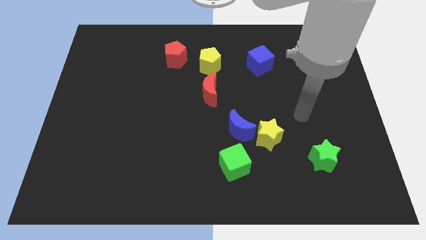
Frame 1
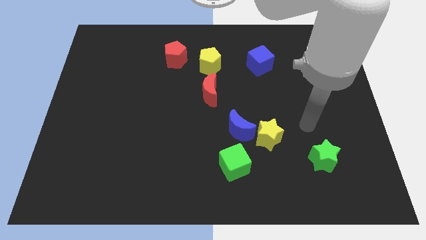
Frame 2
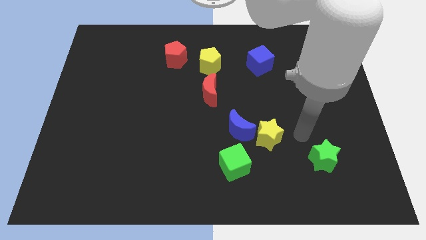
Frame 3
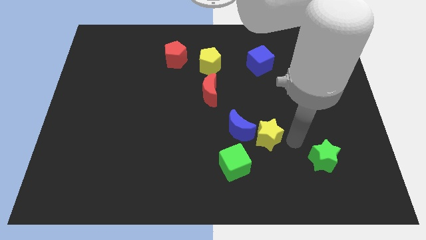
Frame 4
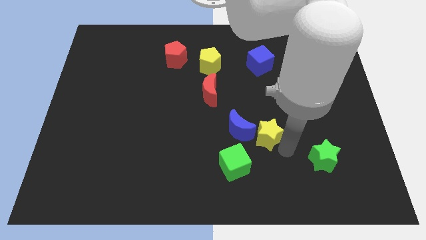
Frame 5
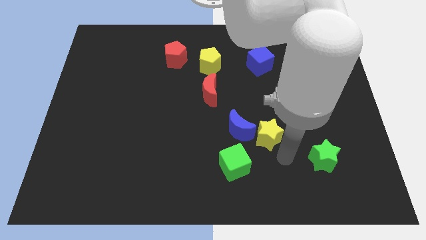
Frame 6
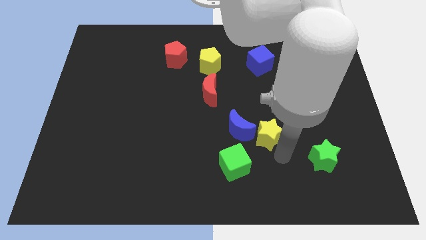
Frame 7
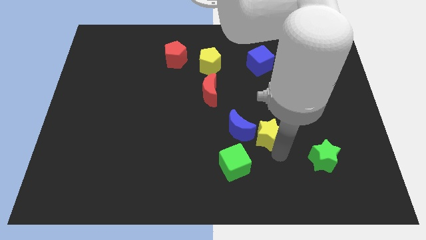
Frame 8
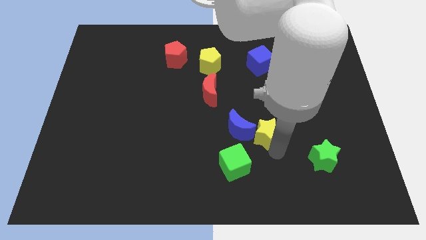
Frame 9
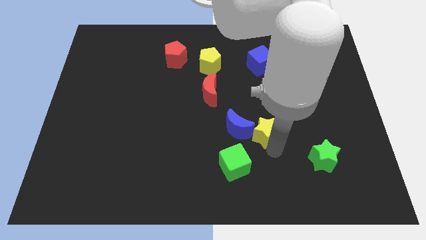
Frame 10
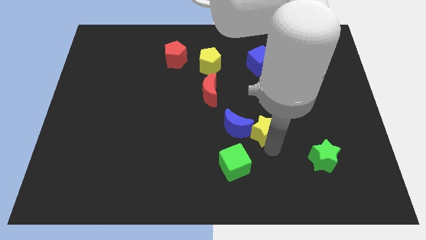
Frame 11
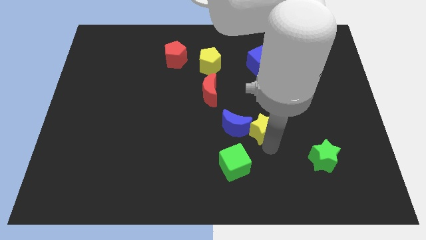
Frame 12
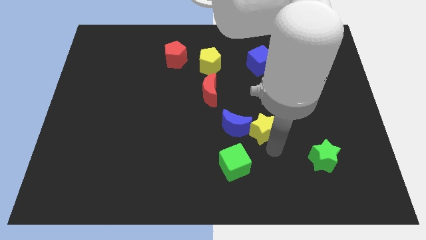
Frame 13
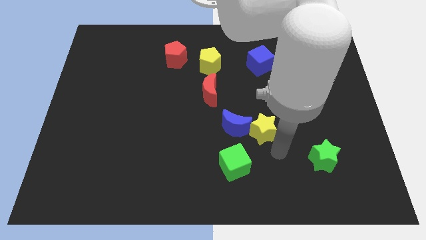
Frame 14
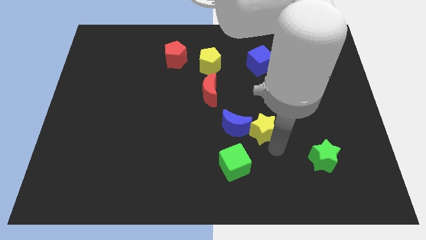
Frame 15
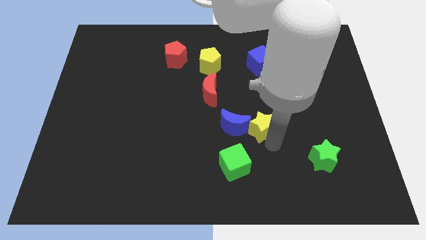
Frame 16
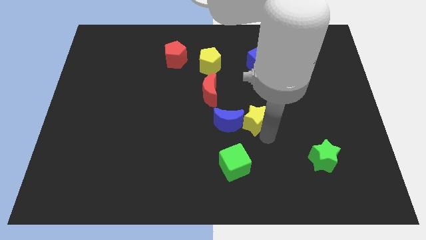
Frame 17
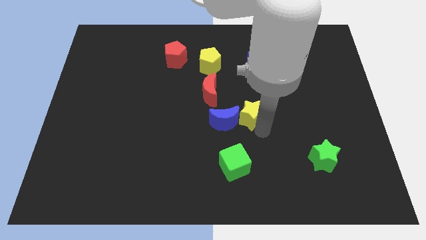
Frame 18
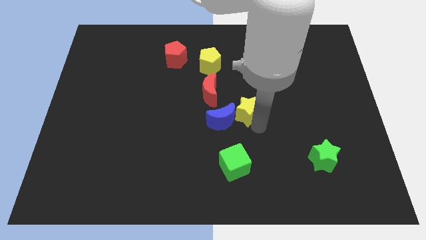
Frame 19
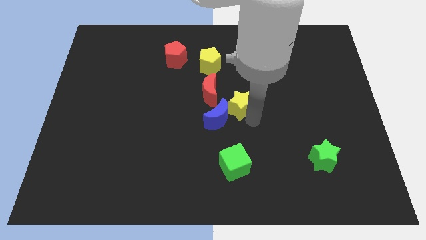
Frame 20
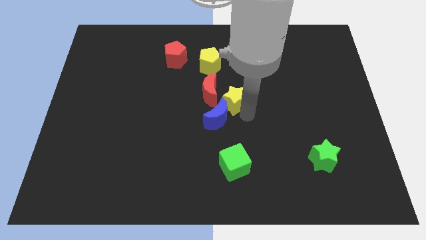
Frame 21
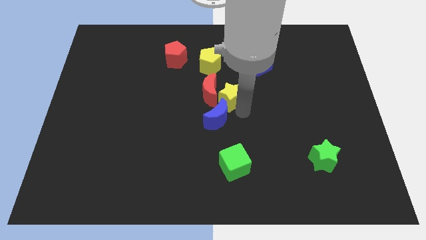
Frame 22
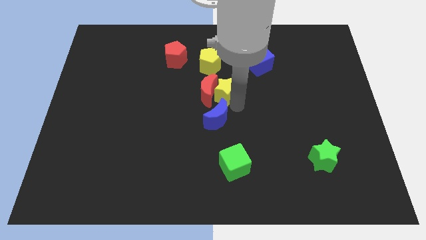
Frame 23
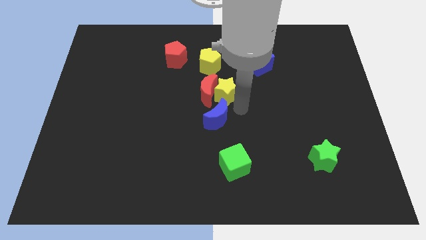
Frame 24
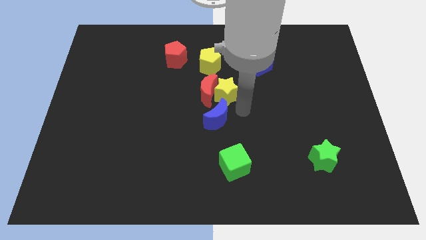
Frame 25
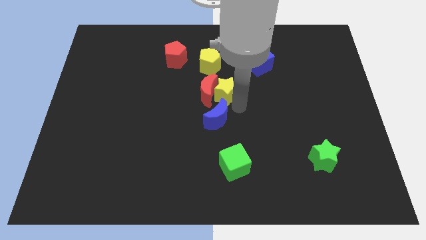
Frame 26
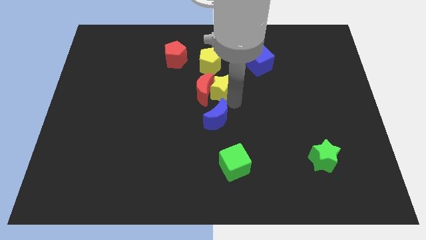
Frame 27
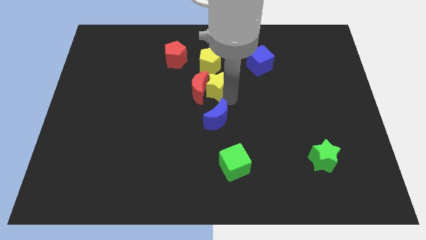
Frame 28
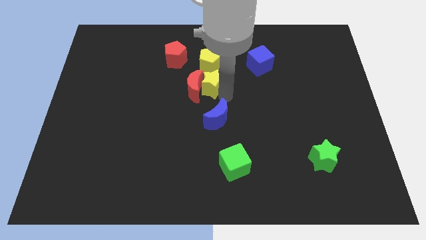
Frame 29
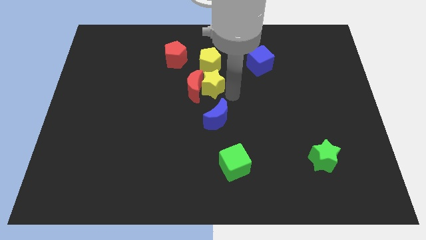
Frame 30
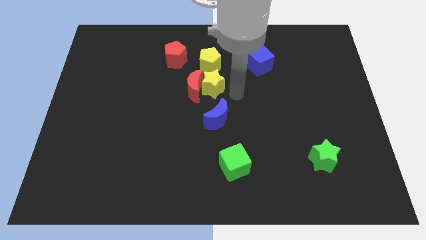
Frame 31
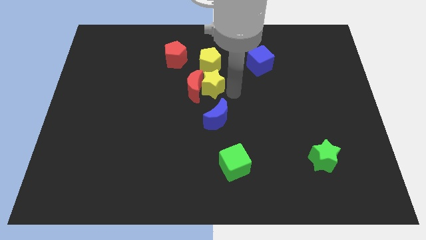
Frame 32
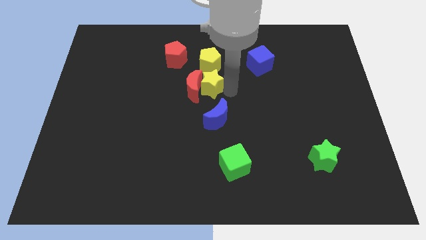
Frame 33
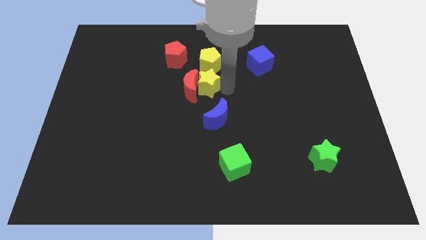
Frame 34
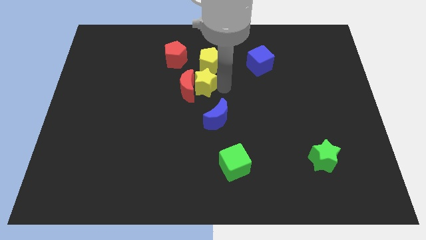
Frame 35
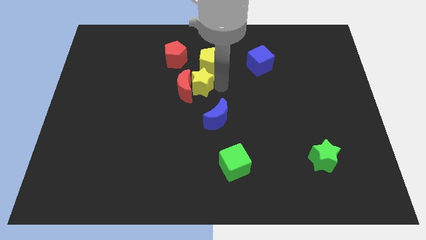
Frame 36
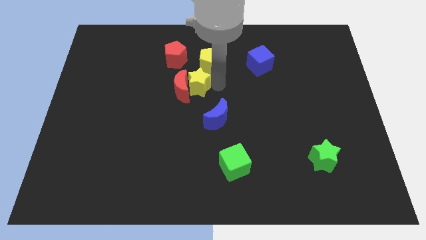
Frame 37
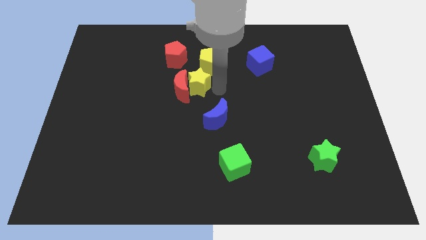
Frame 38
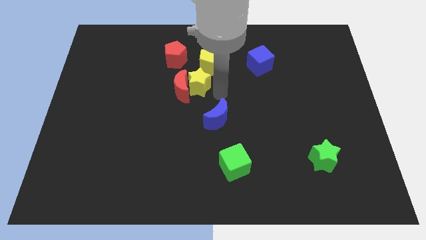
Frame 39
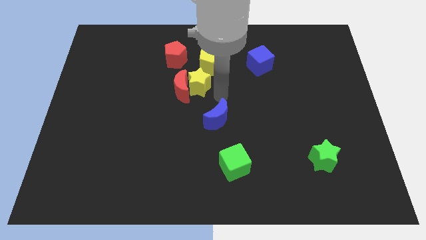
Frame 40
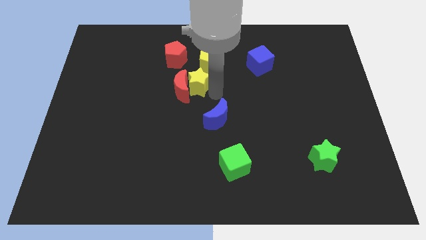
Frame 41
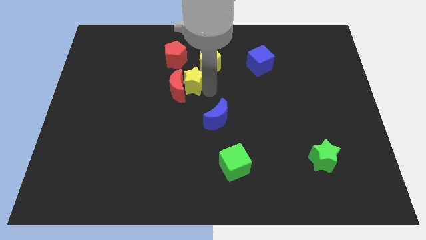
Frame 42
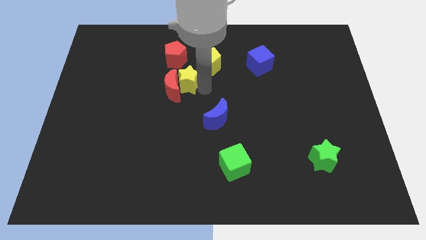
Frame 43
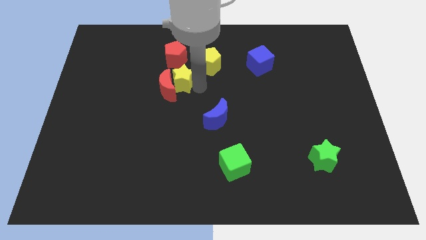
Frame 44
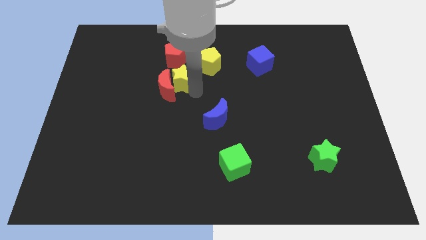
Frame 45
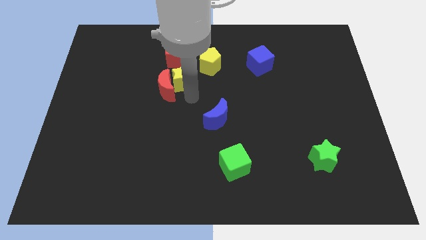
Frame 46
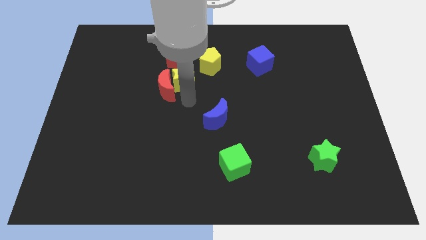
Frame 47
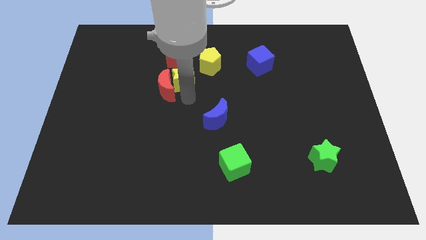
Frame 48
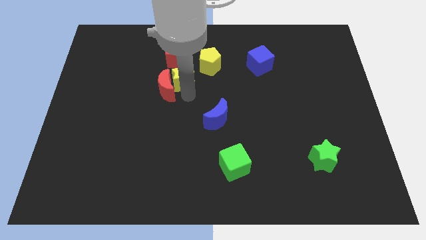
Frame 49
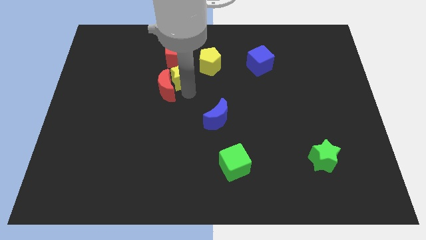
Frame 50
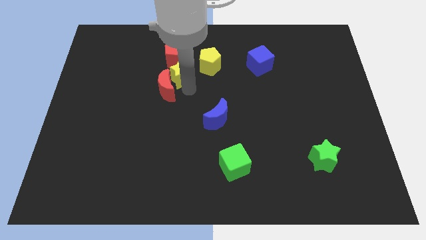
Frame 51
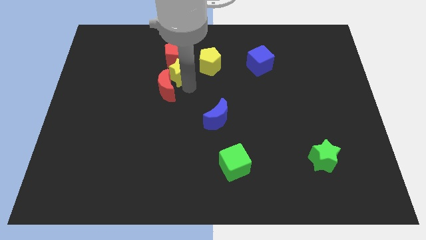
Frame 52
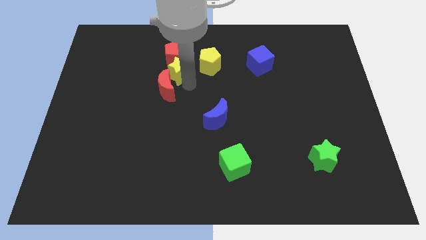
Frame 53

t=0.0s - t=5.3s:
put the yellow star to the red pentagon

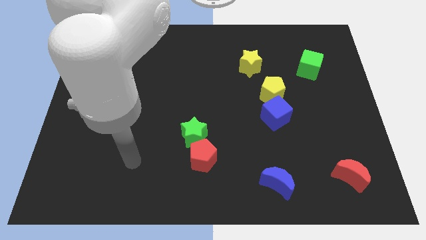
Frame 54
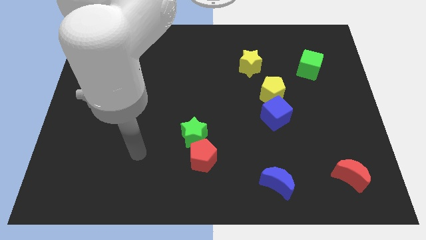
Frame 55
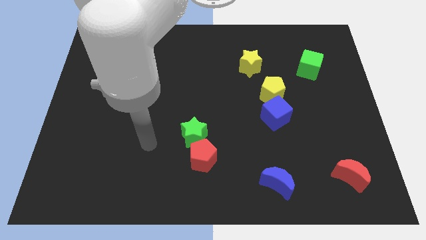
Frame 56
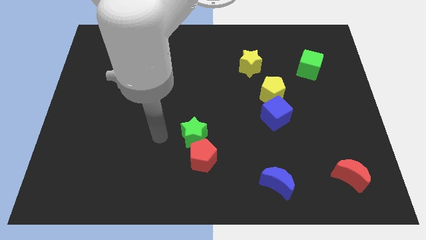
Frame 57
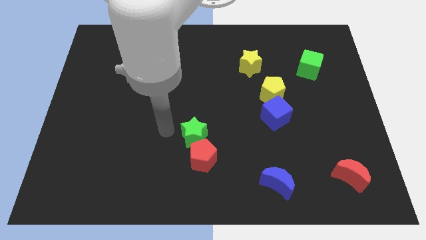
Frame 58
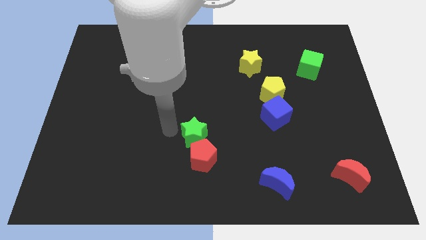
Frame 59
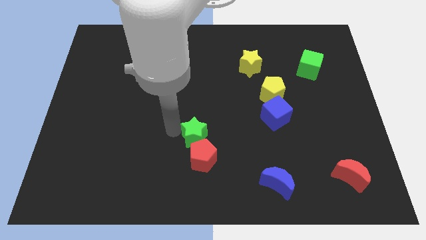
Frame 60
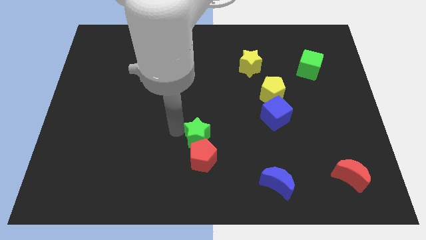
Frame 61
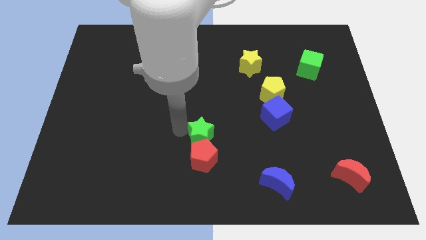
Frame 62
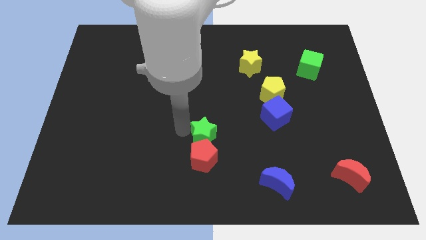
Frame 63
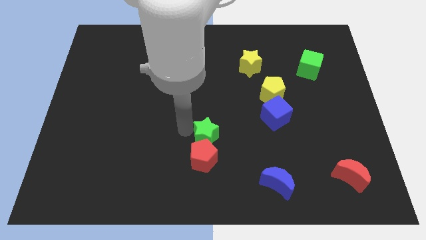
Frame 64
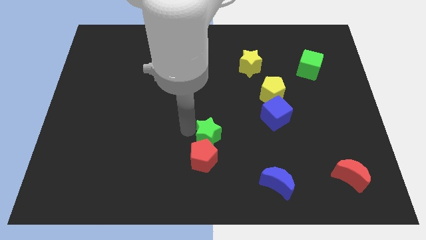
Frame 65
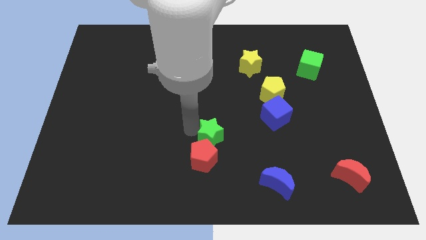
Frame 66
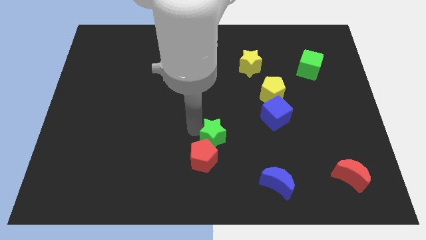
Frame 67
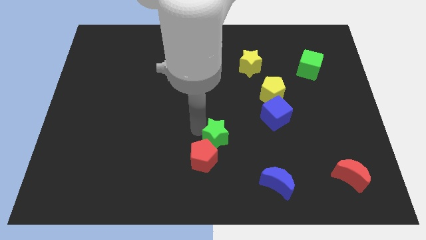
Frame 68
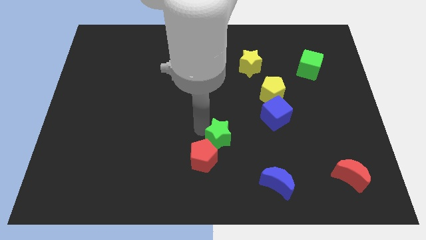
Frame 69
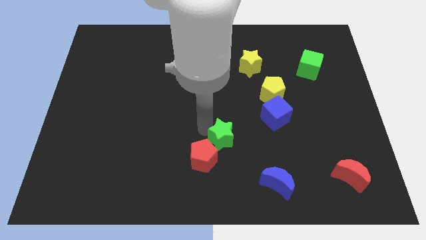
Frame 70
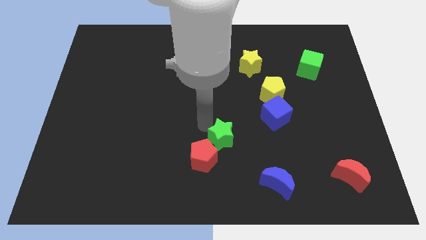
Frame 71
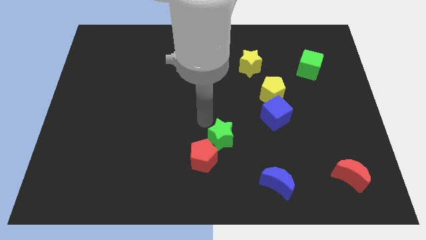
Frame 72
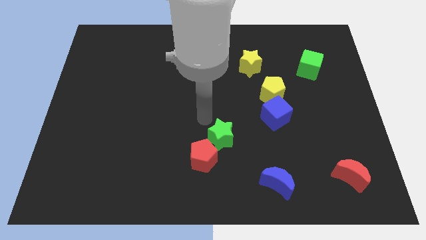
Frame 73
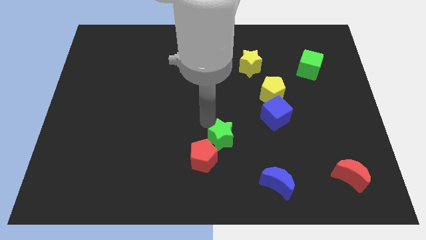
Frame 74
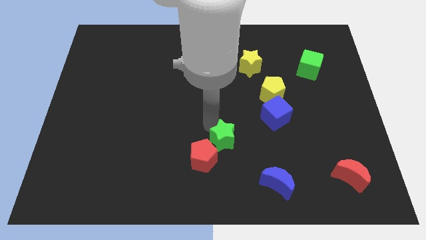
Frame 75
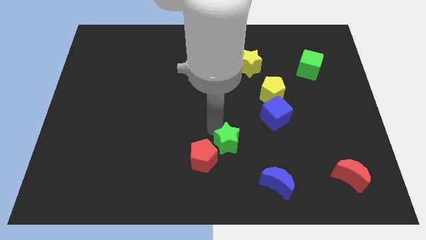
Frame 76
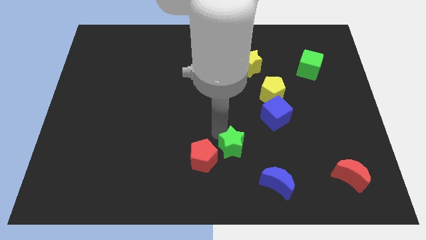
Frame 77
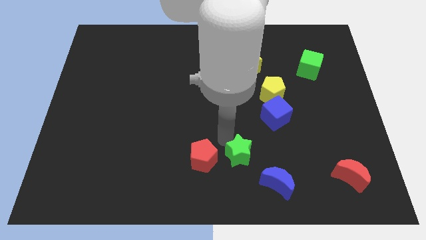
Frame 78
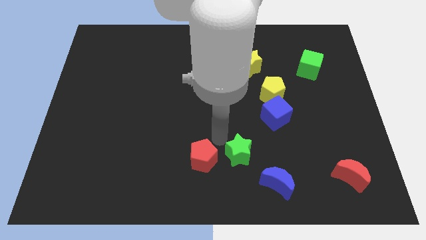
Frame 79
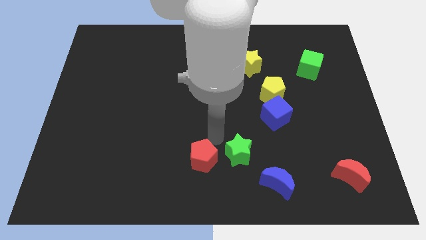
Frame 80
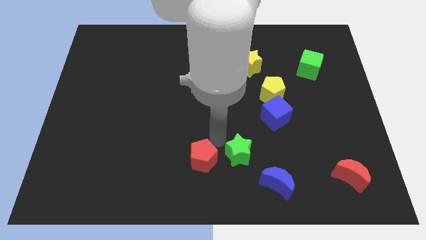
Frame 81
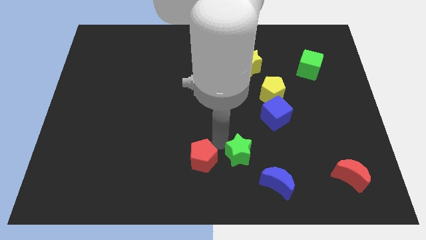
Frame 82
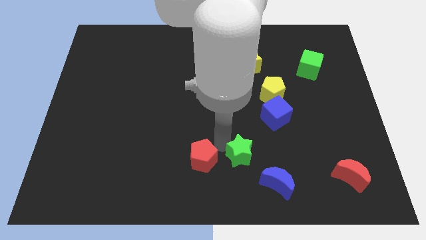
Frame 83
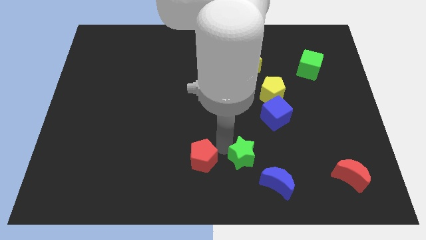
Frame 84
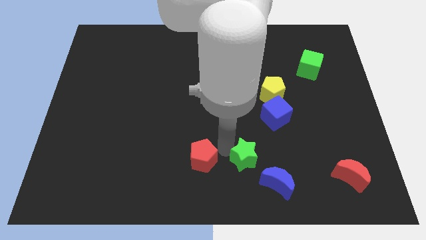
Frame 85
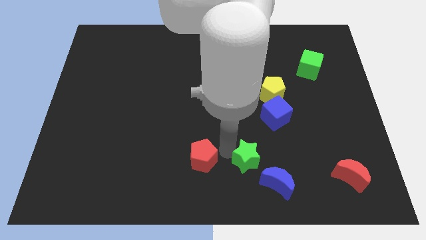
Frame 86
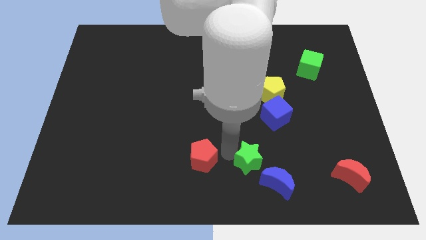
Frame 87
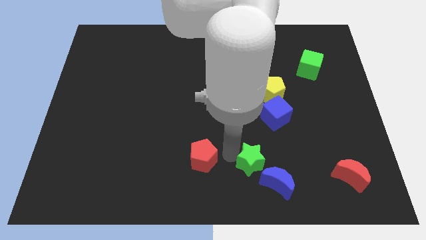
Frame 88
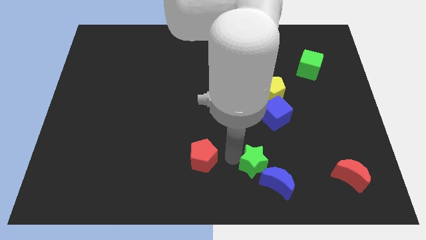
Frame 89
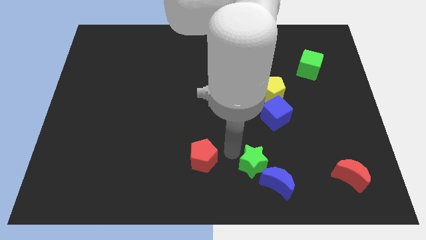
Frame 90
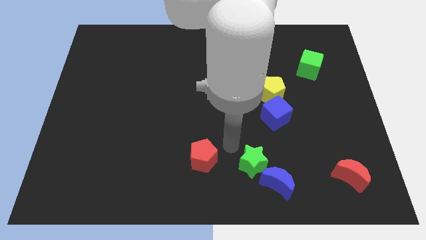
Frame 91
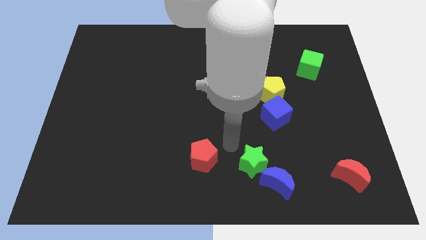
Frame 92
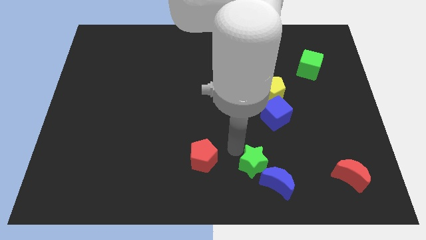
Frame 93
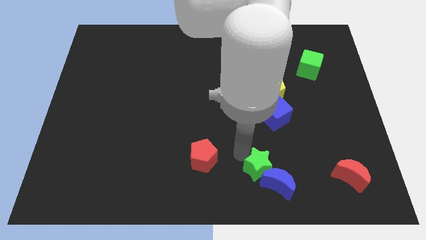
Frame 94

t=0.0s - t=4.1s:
push the green star towards the blue moon
